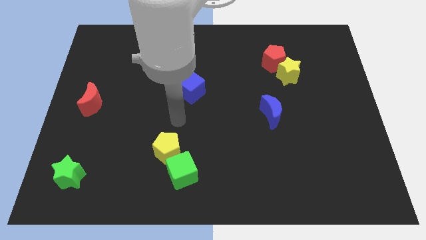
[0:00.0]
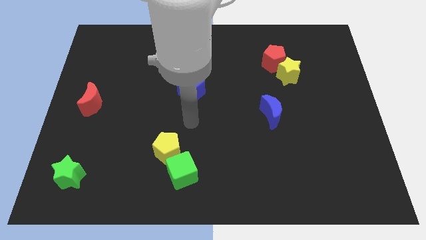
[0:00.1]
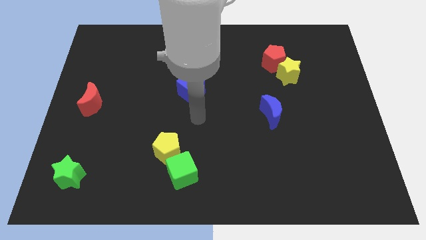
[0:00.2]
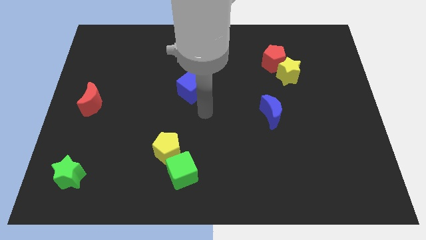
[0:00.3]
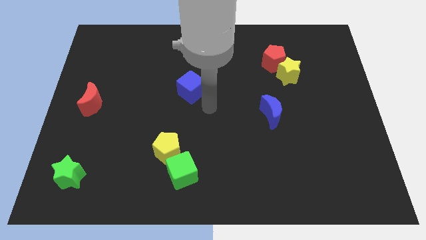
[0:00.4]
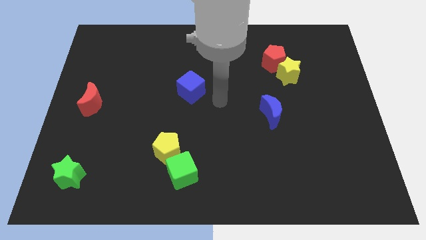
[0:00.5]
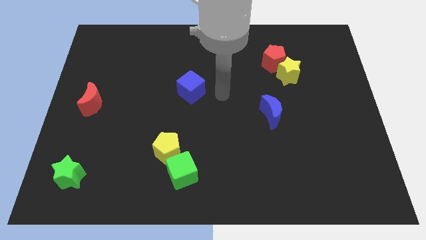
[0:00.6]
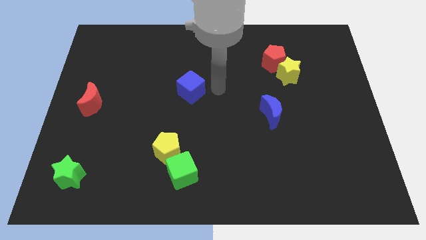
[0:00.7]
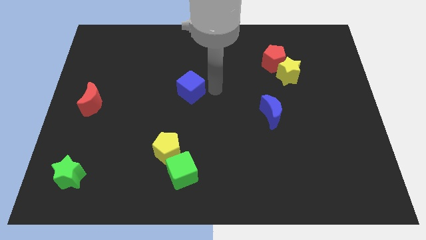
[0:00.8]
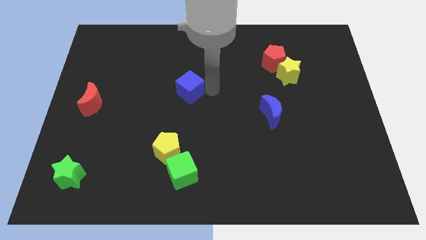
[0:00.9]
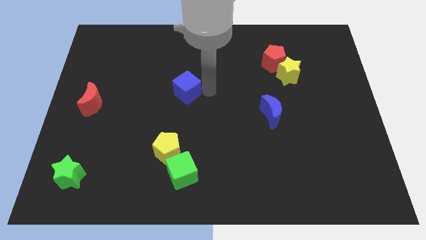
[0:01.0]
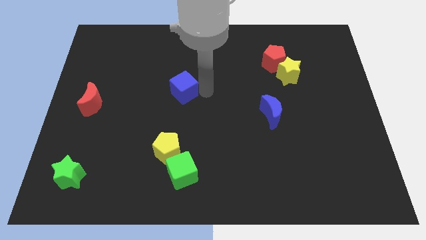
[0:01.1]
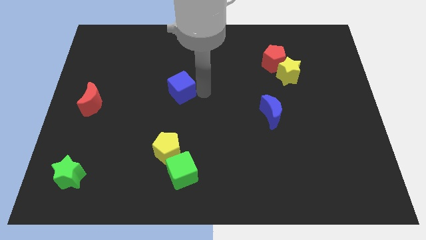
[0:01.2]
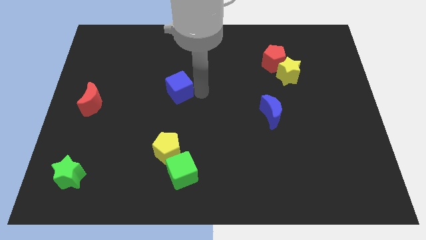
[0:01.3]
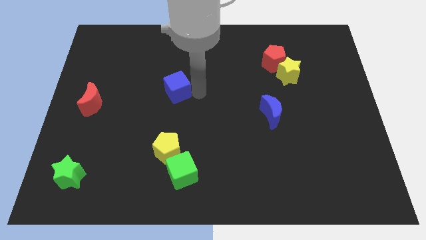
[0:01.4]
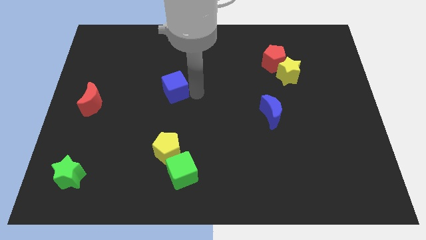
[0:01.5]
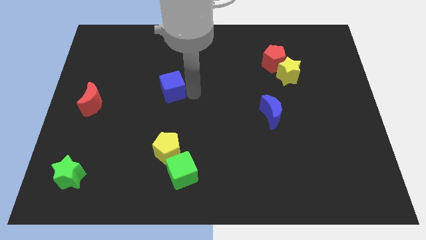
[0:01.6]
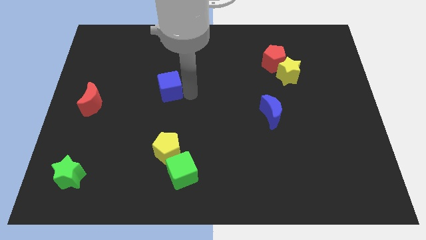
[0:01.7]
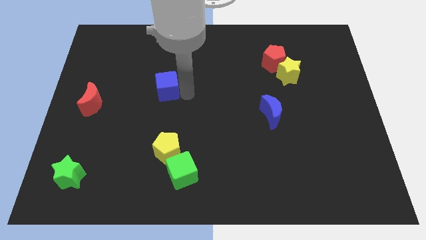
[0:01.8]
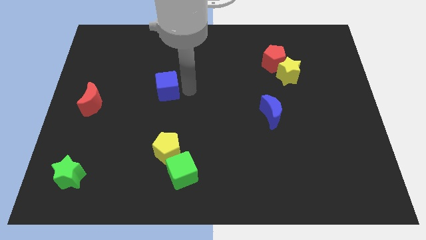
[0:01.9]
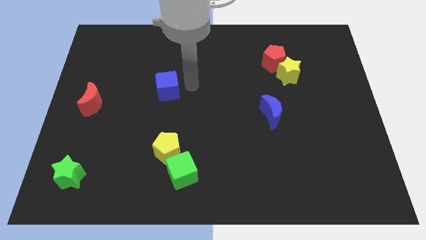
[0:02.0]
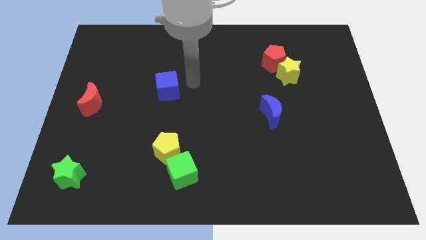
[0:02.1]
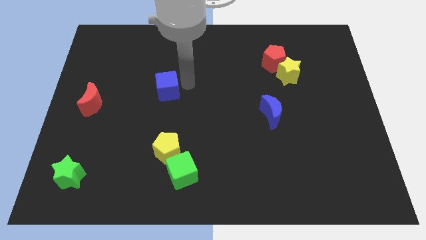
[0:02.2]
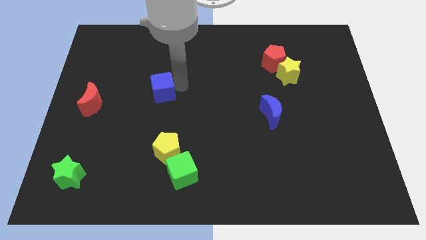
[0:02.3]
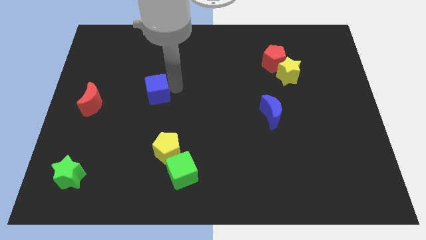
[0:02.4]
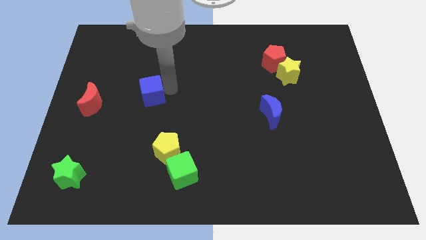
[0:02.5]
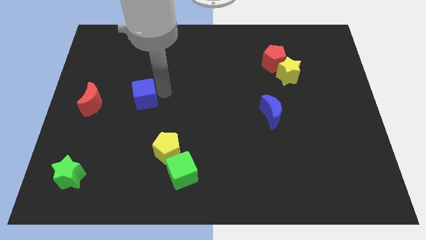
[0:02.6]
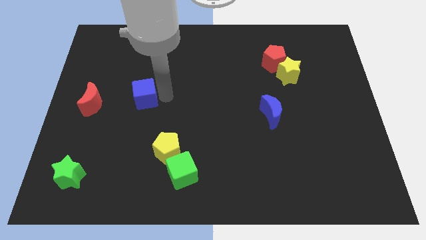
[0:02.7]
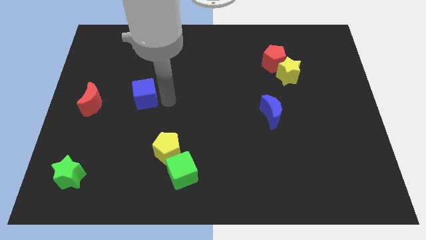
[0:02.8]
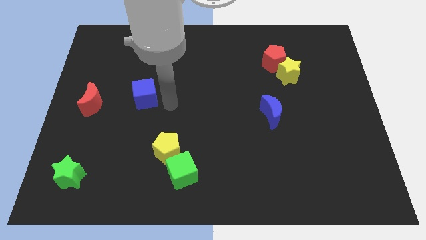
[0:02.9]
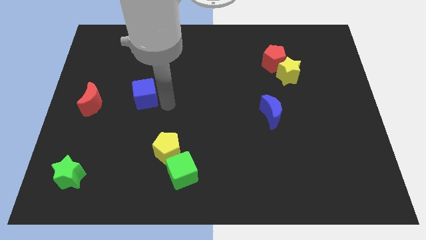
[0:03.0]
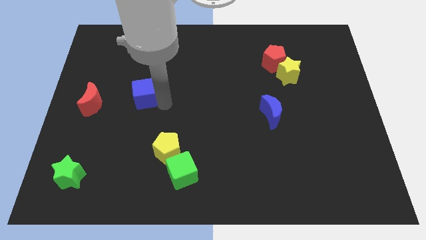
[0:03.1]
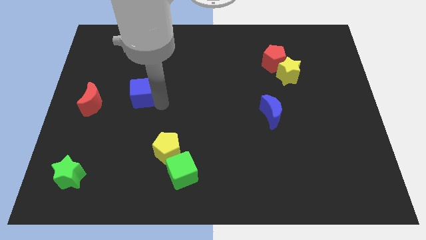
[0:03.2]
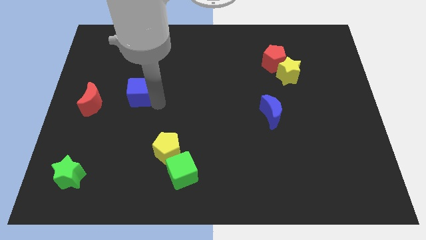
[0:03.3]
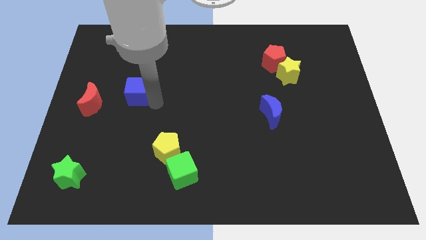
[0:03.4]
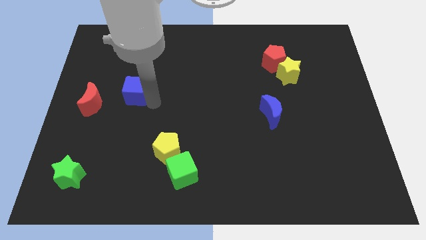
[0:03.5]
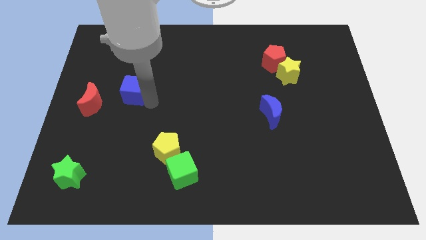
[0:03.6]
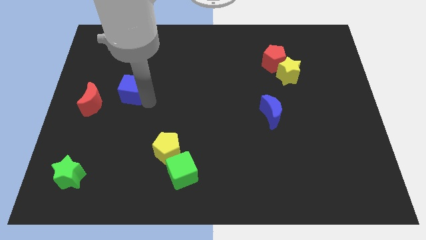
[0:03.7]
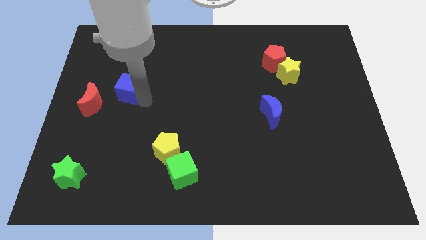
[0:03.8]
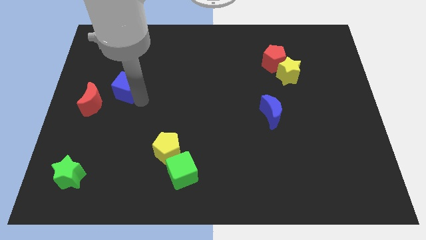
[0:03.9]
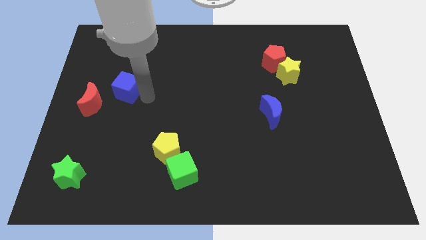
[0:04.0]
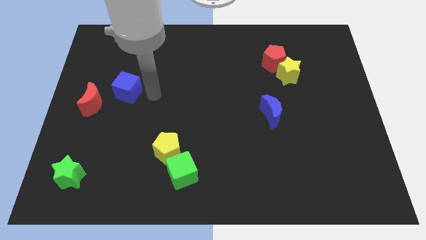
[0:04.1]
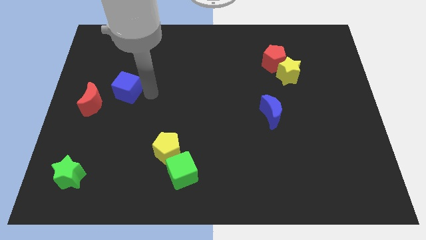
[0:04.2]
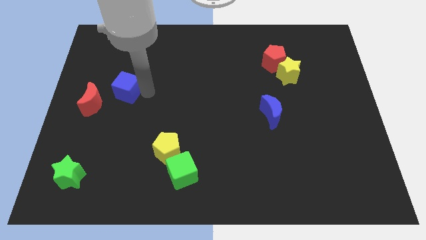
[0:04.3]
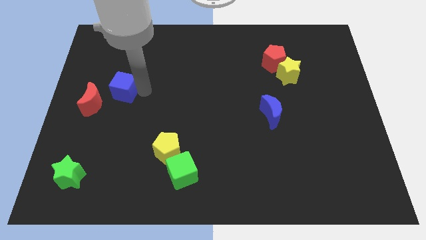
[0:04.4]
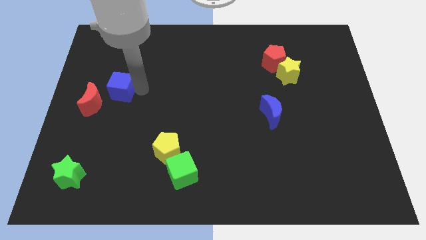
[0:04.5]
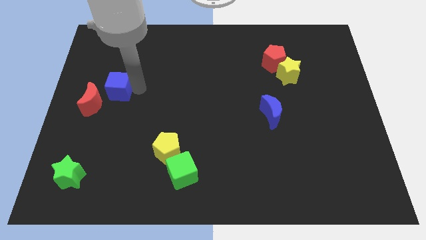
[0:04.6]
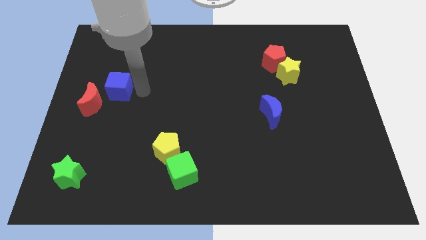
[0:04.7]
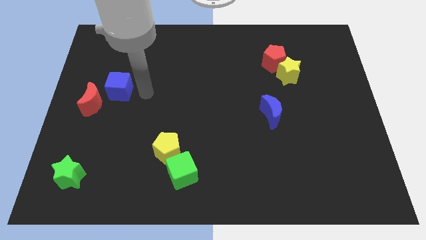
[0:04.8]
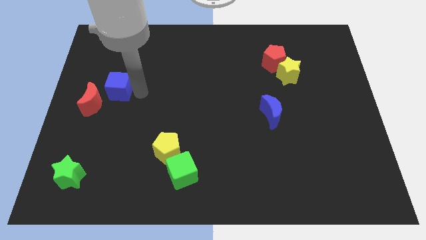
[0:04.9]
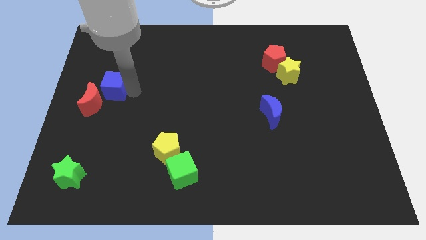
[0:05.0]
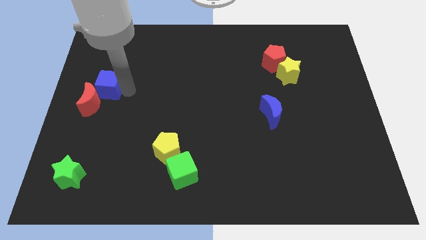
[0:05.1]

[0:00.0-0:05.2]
push the blue cube to the center left
